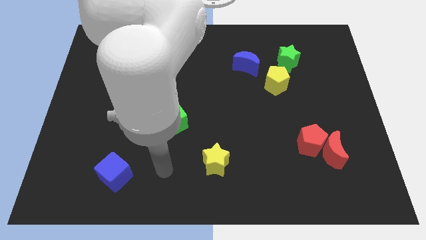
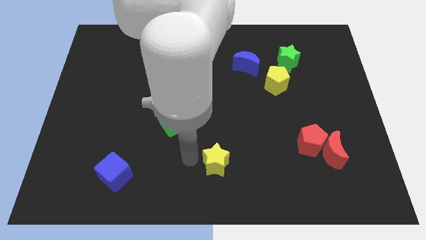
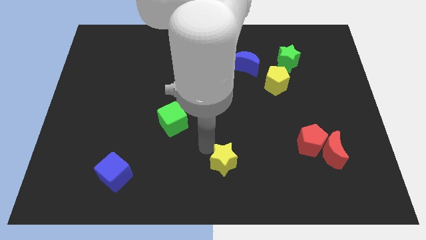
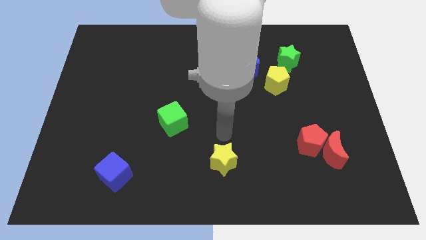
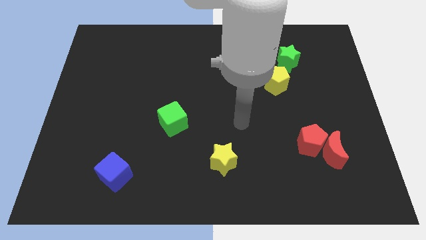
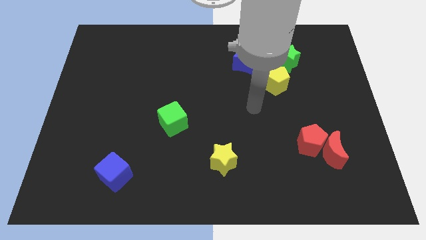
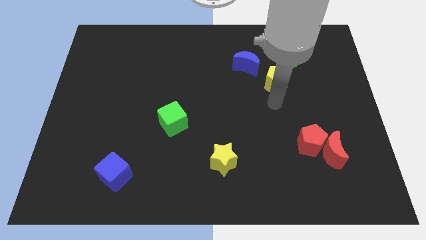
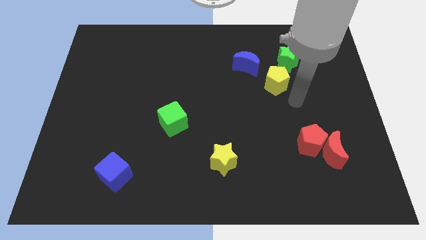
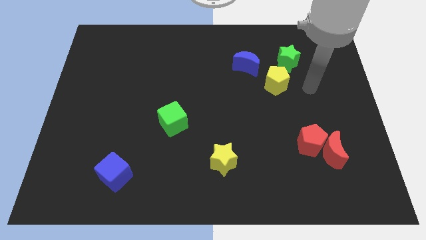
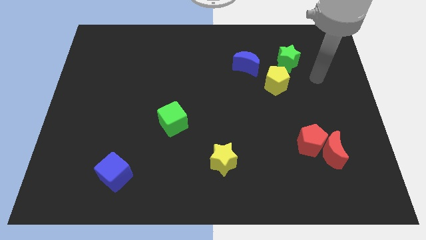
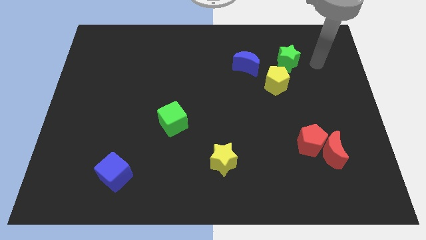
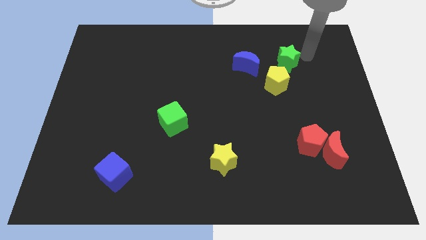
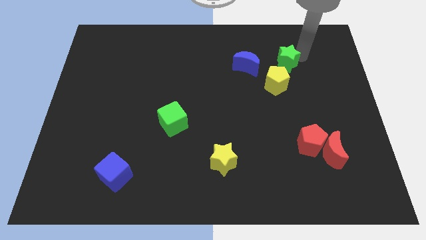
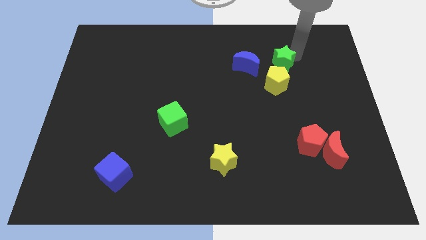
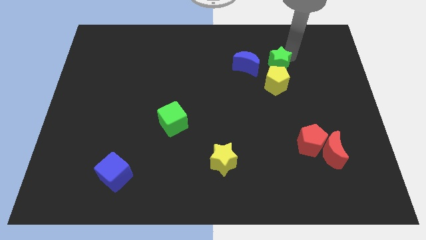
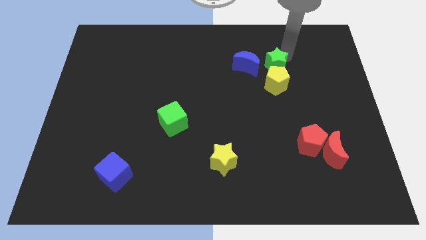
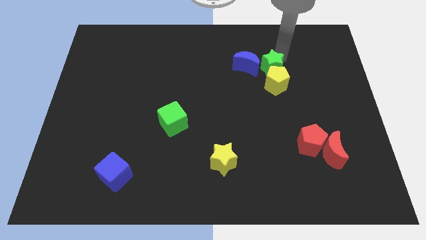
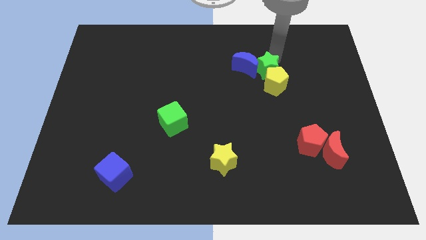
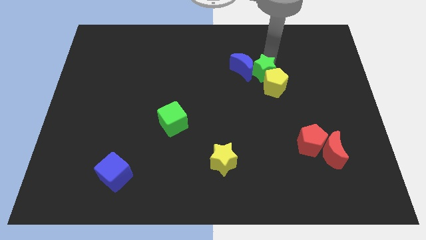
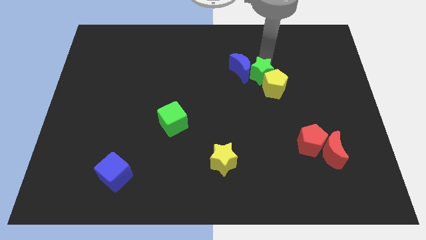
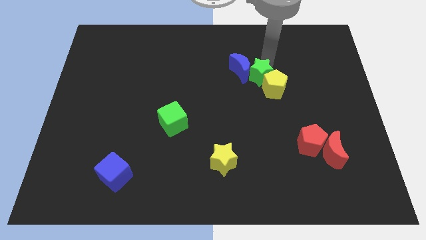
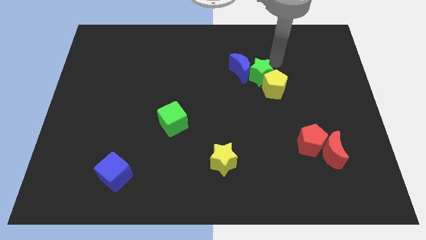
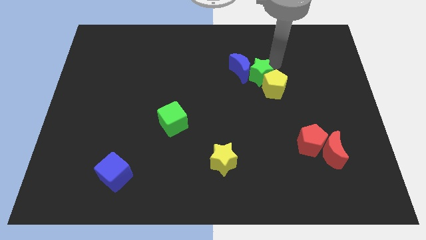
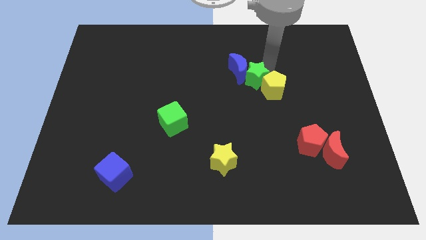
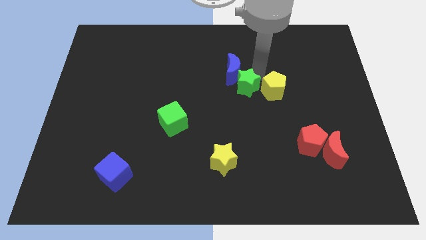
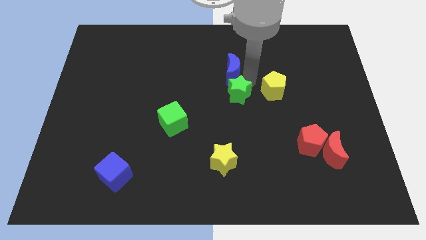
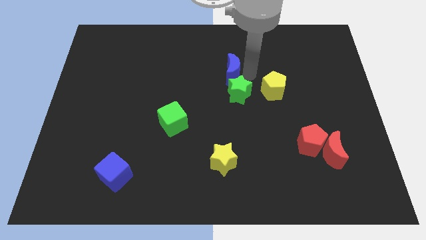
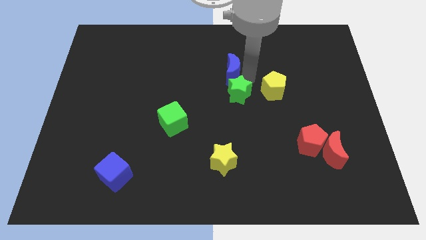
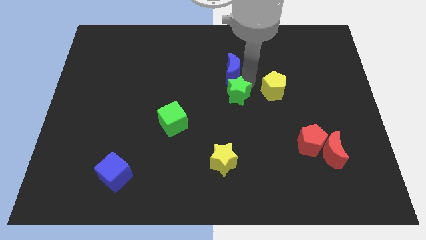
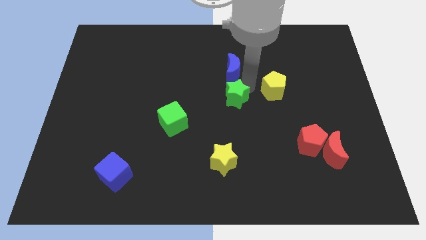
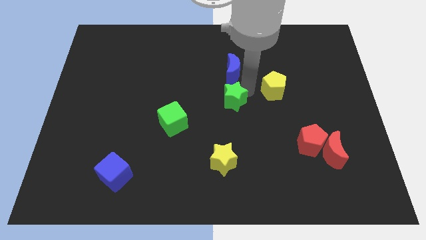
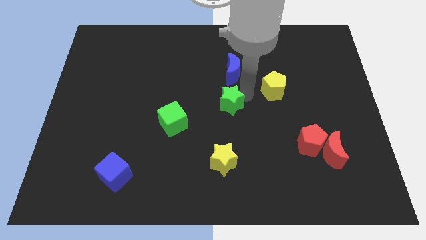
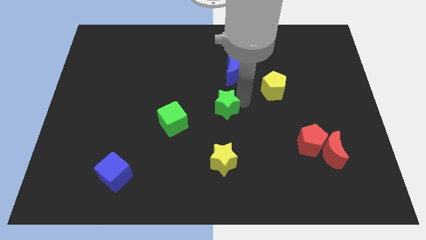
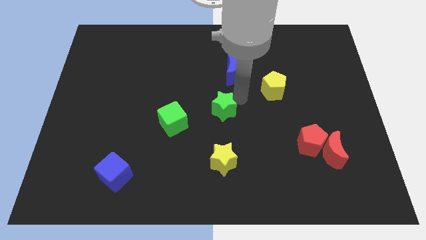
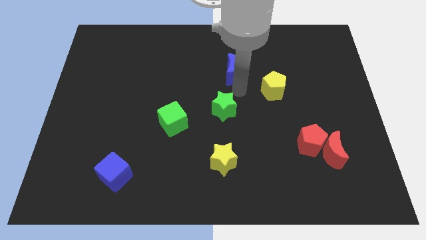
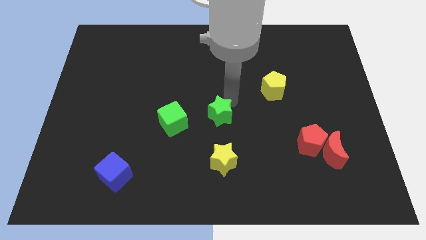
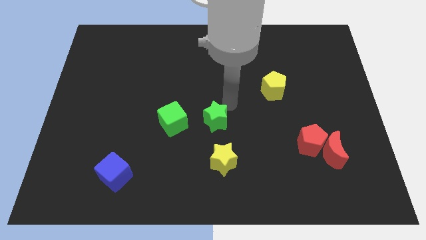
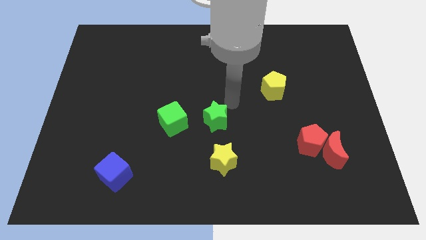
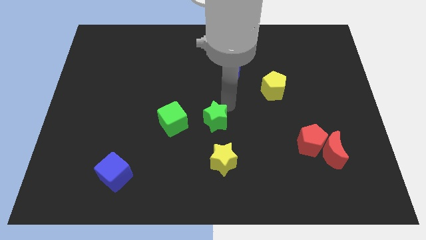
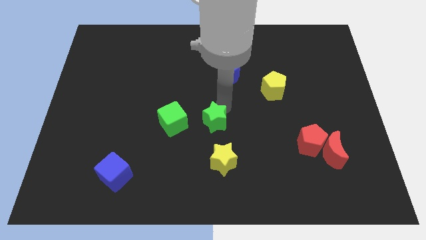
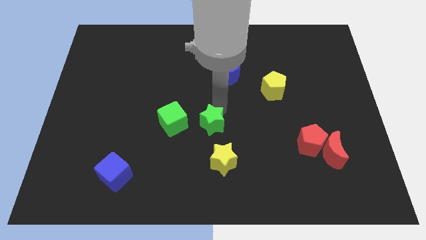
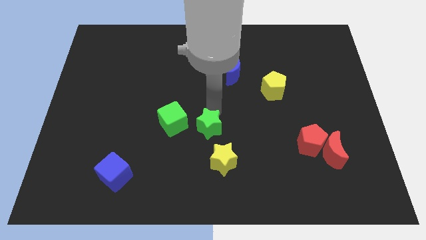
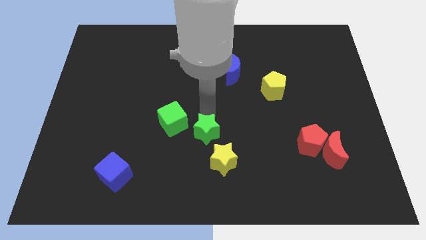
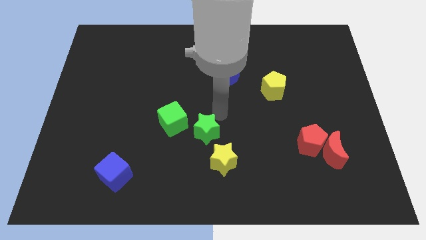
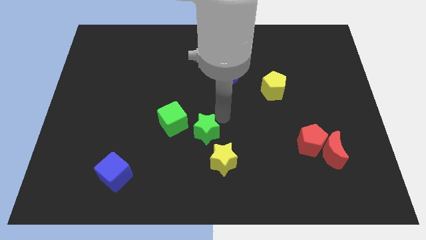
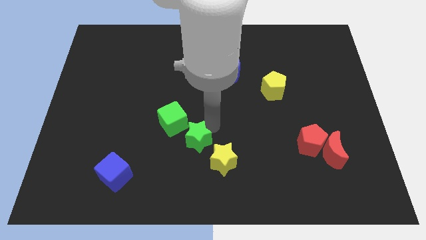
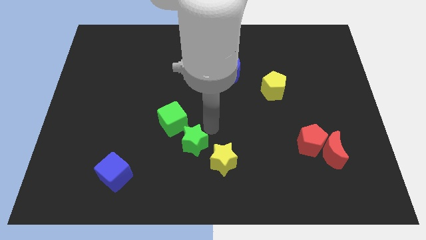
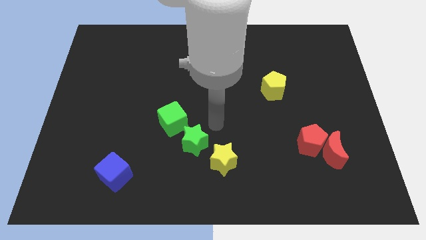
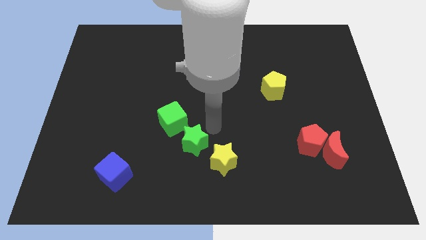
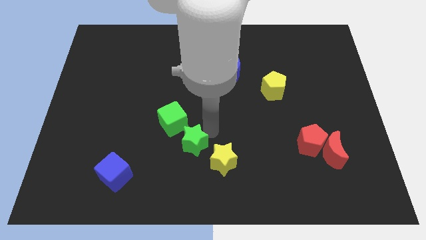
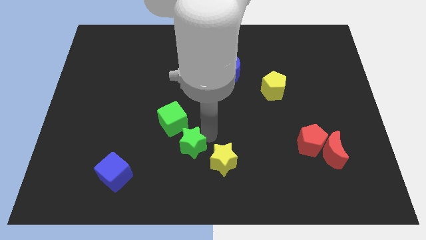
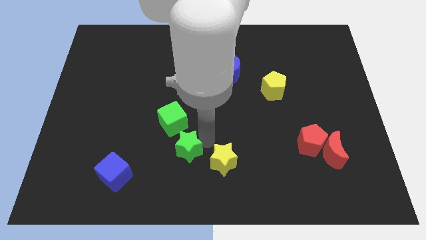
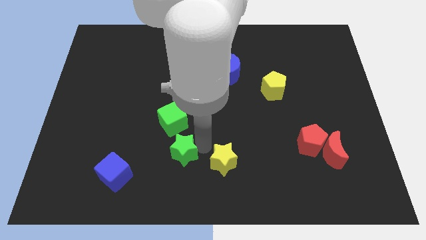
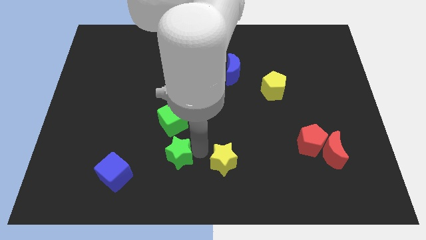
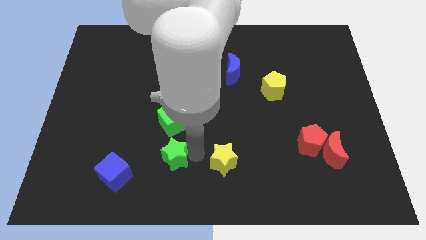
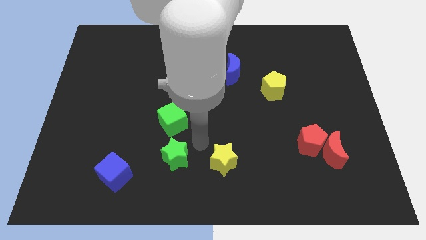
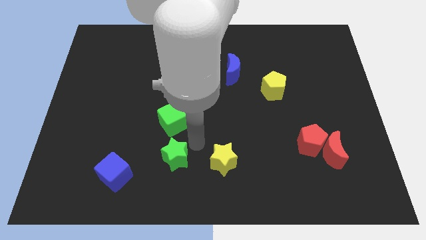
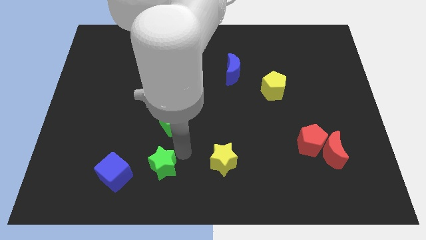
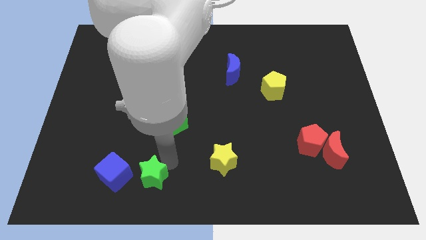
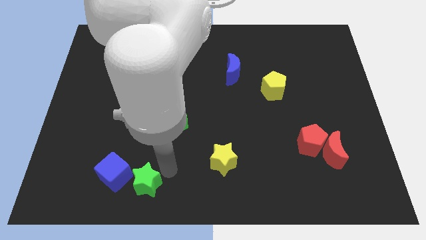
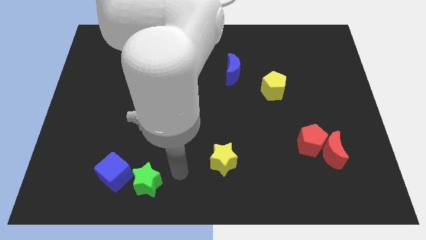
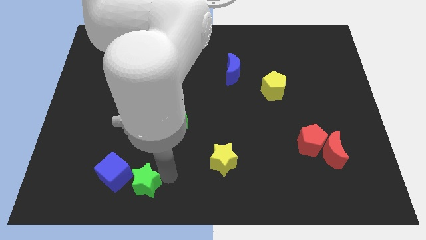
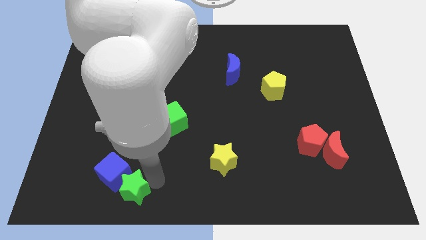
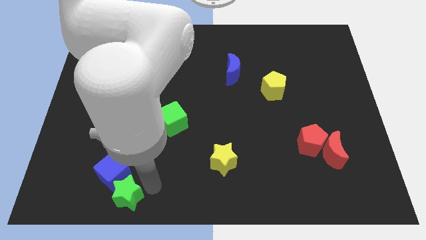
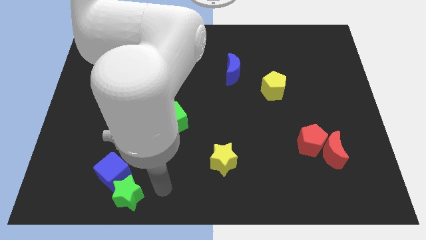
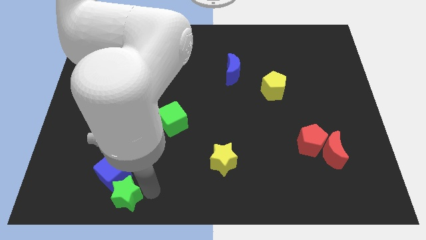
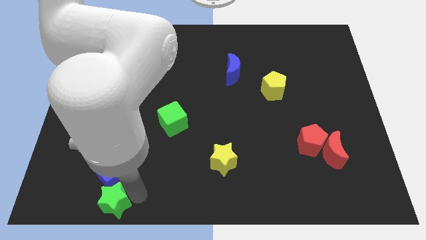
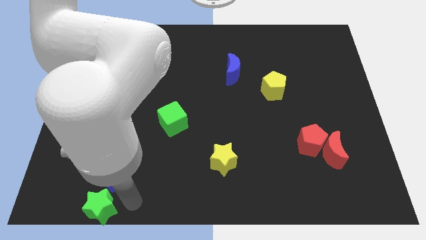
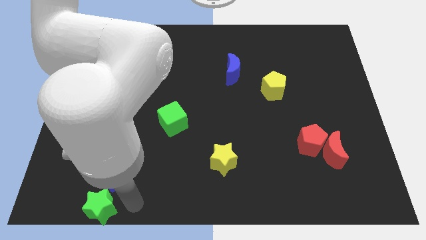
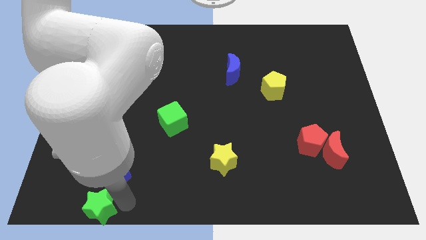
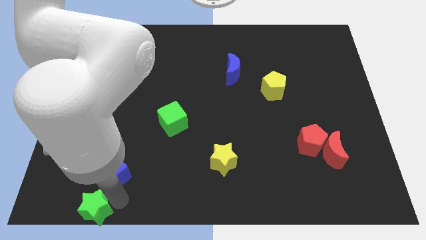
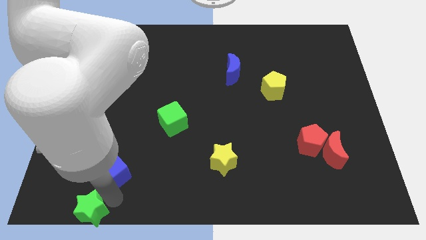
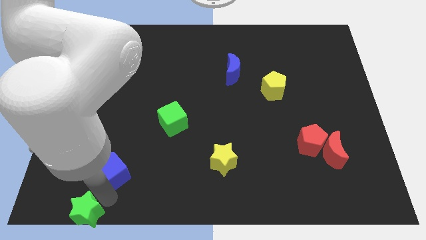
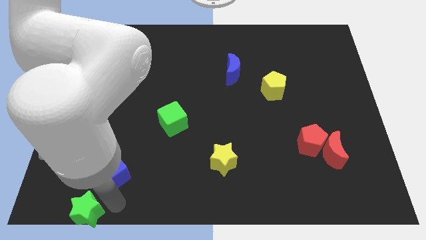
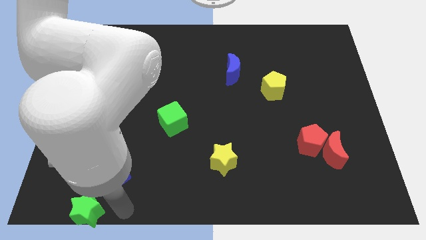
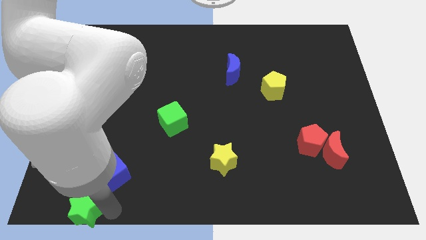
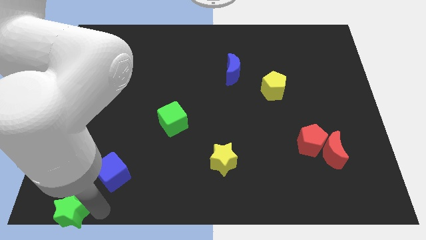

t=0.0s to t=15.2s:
slide the green star to the bottom left of the board
